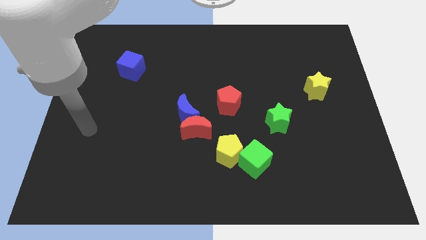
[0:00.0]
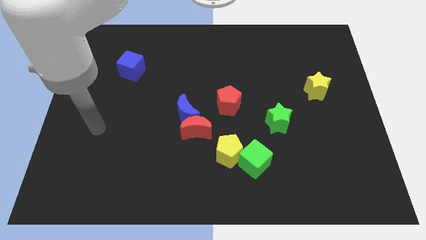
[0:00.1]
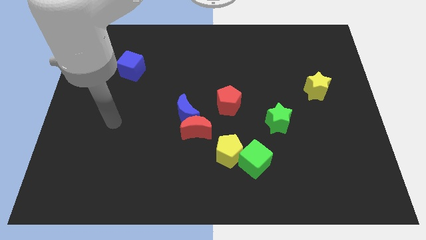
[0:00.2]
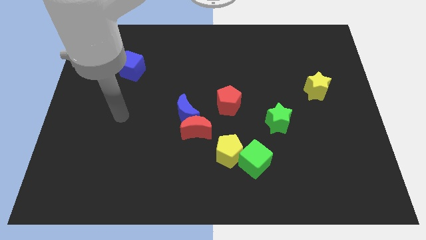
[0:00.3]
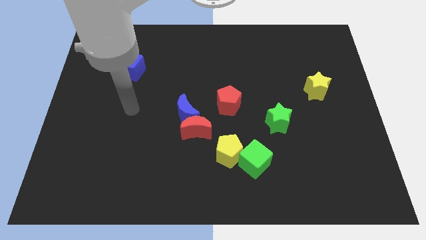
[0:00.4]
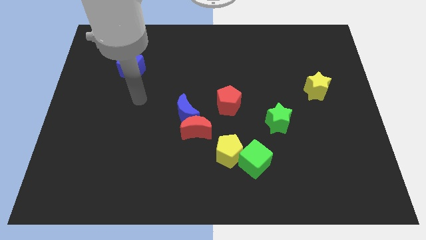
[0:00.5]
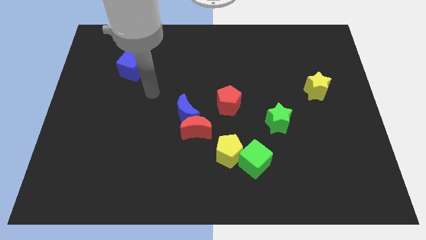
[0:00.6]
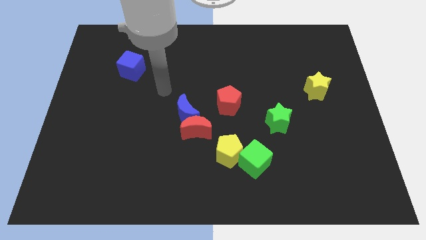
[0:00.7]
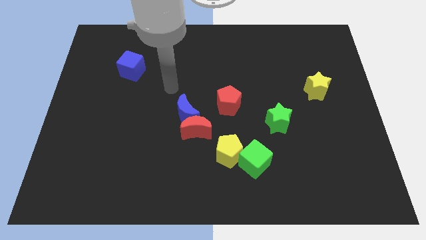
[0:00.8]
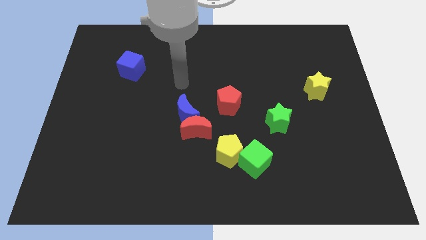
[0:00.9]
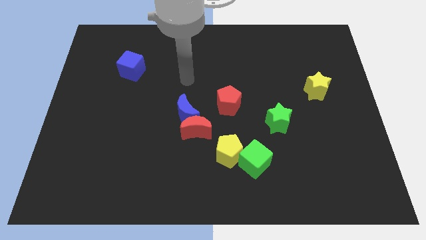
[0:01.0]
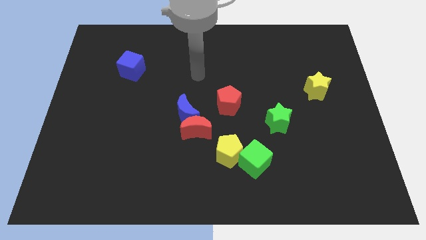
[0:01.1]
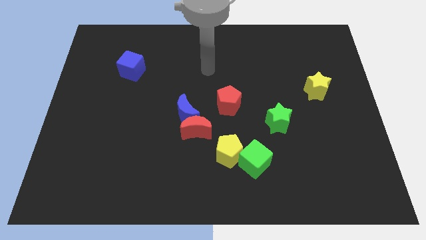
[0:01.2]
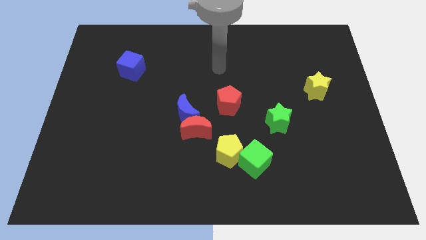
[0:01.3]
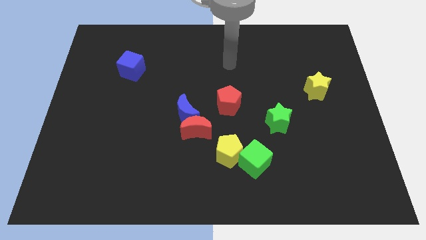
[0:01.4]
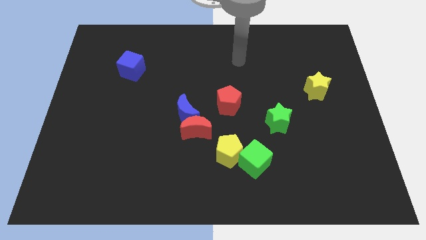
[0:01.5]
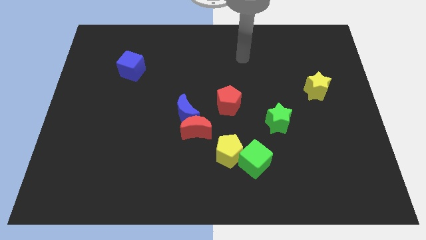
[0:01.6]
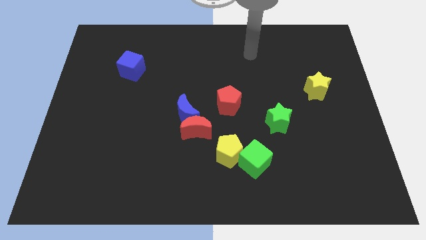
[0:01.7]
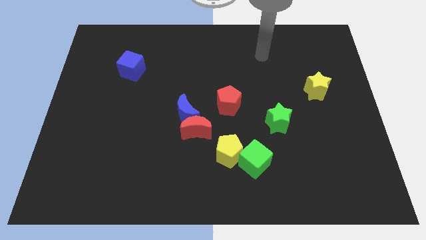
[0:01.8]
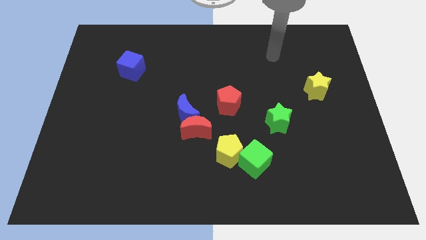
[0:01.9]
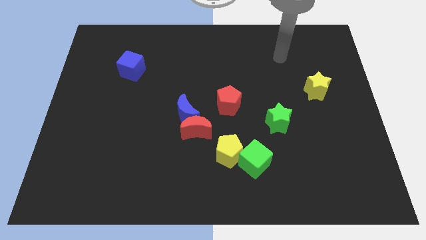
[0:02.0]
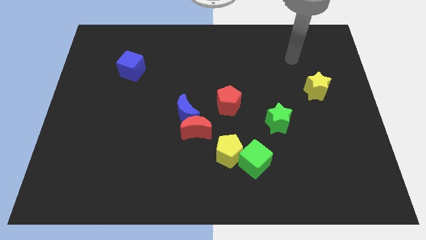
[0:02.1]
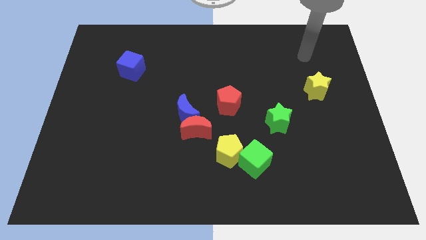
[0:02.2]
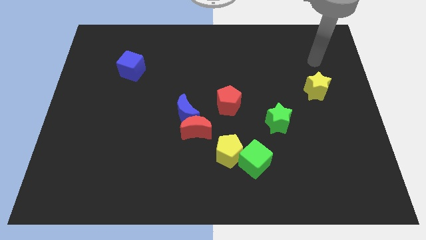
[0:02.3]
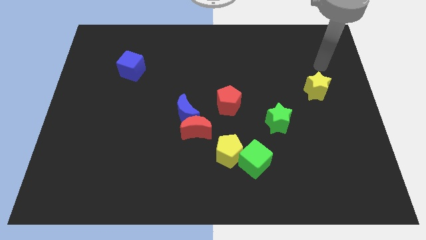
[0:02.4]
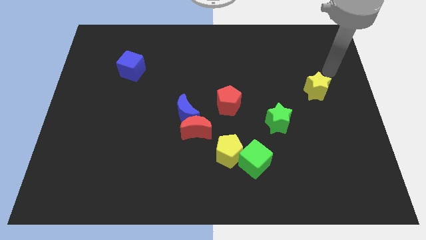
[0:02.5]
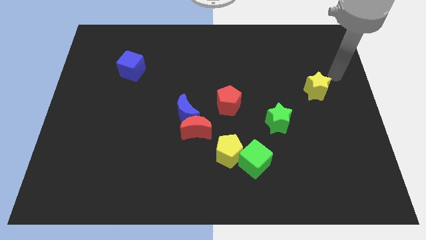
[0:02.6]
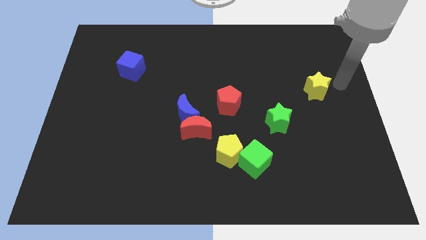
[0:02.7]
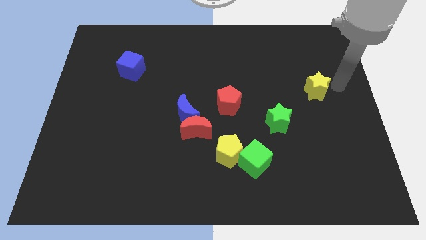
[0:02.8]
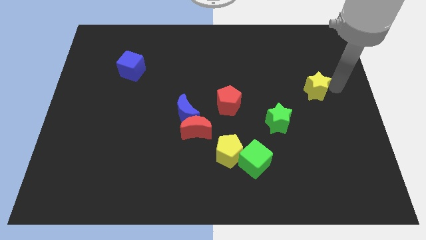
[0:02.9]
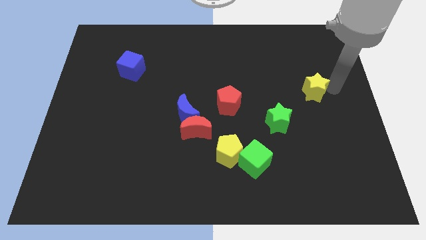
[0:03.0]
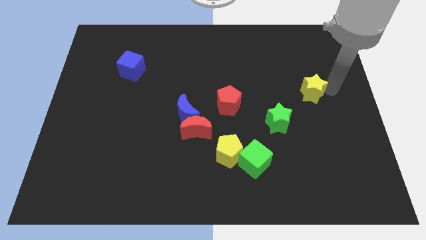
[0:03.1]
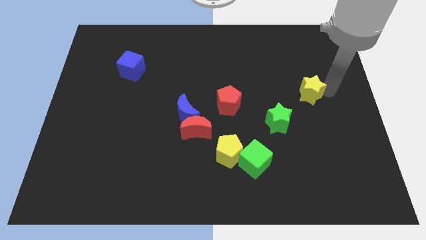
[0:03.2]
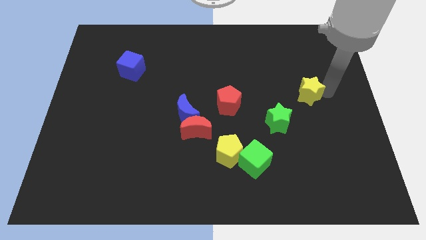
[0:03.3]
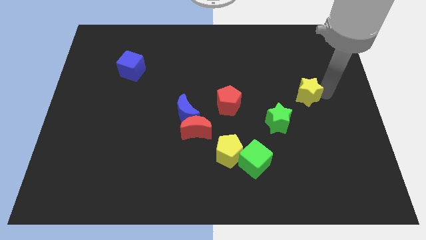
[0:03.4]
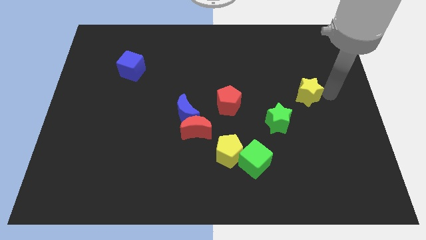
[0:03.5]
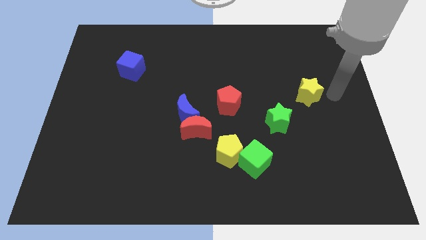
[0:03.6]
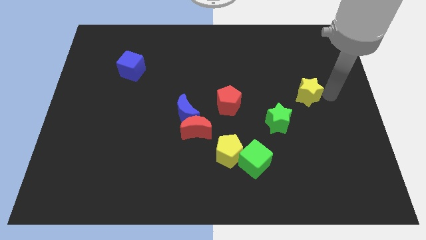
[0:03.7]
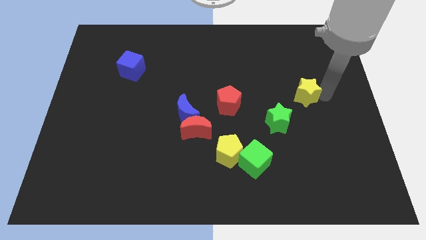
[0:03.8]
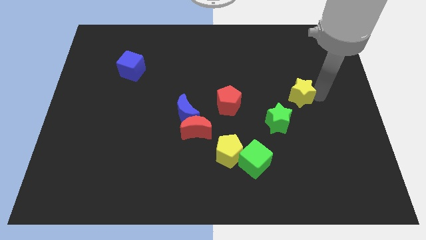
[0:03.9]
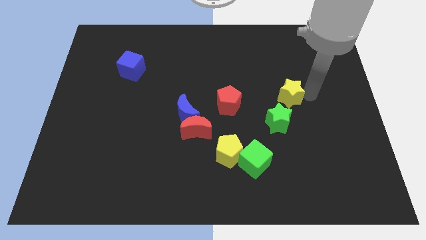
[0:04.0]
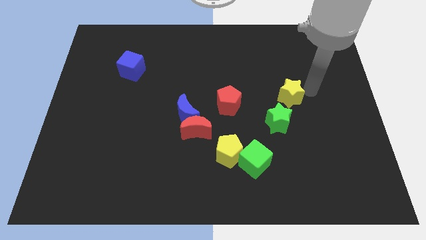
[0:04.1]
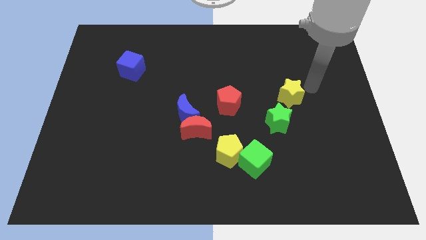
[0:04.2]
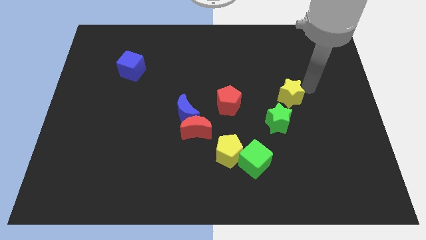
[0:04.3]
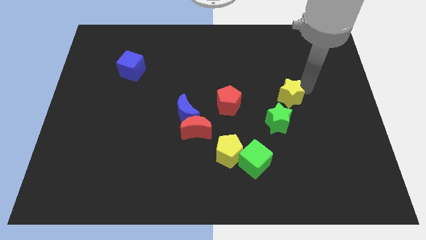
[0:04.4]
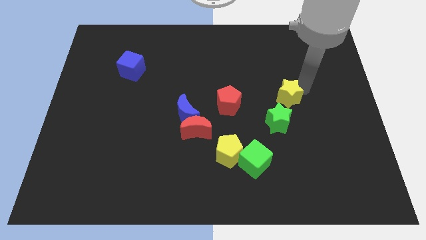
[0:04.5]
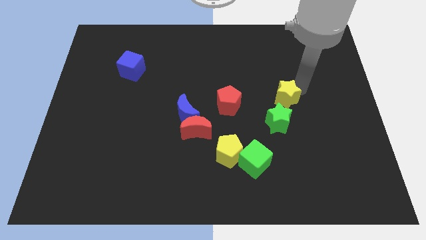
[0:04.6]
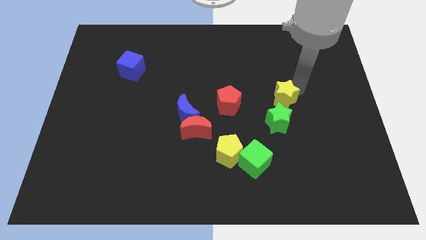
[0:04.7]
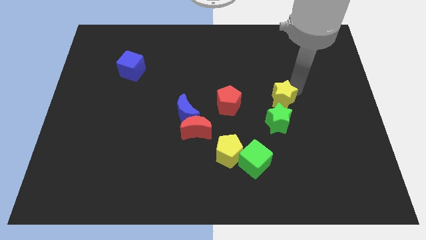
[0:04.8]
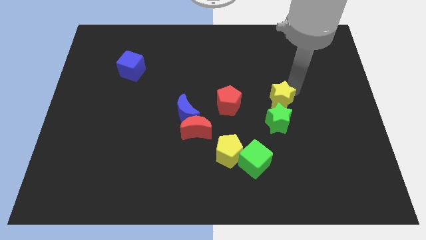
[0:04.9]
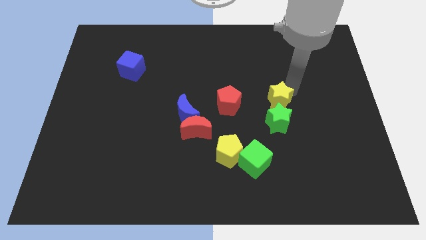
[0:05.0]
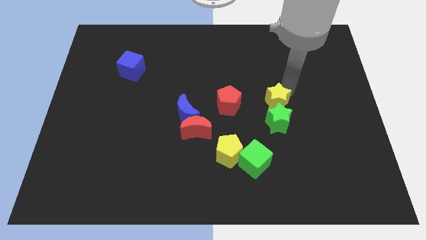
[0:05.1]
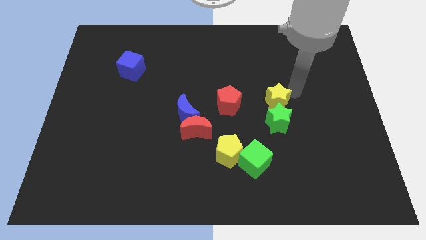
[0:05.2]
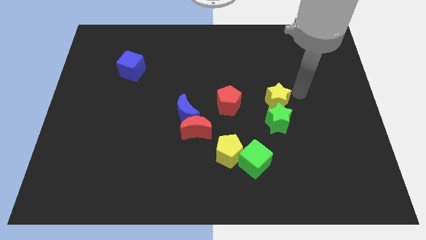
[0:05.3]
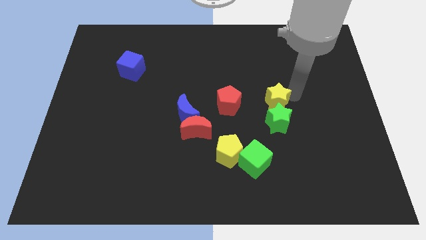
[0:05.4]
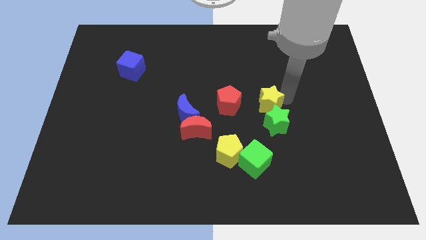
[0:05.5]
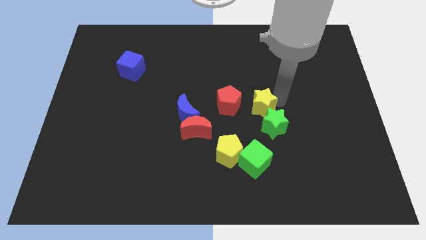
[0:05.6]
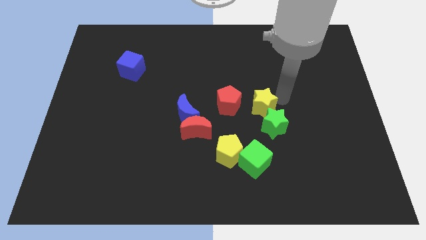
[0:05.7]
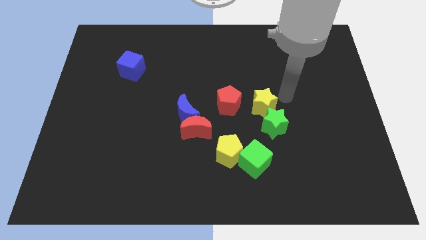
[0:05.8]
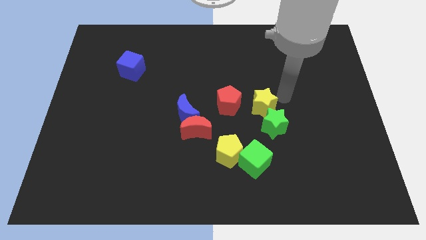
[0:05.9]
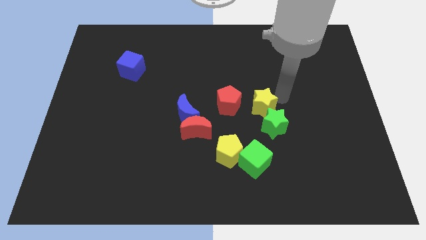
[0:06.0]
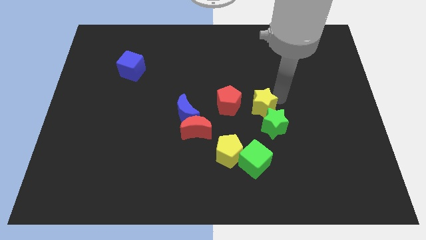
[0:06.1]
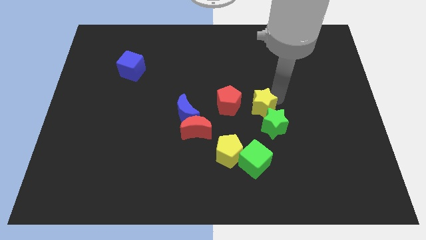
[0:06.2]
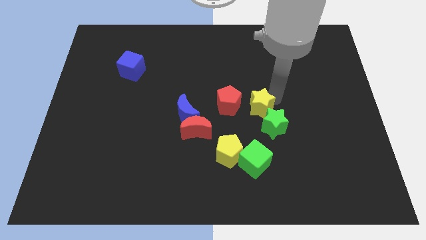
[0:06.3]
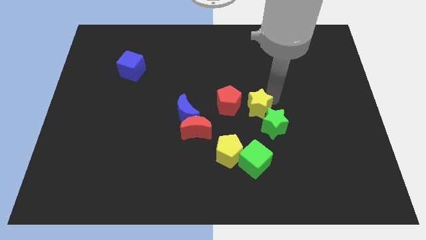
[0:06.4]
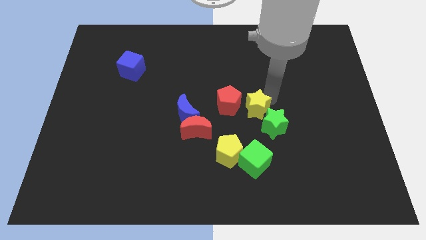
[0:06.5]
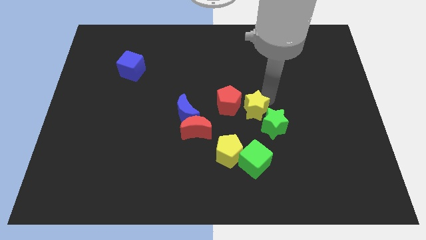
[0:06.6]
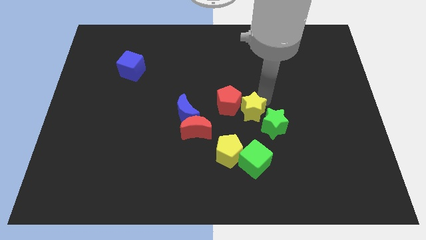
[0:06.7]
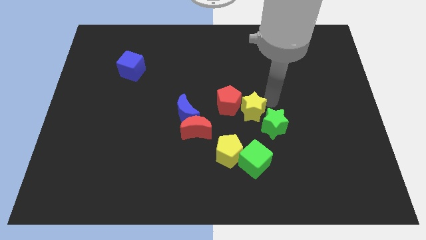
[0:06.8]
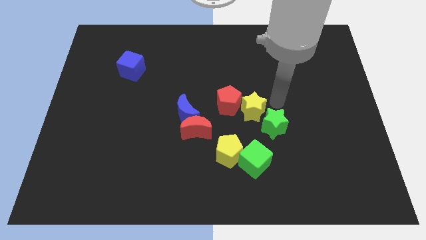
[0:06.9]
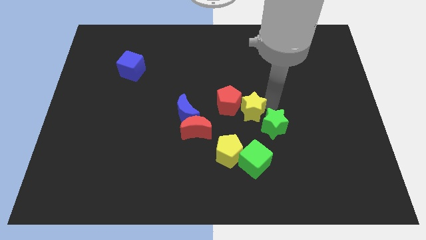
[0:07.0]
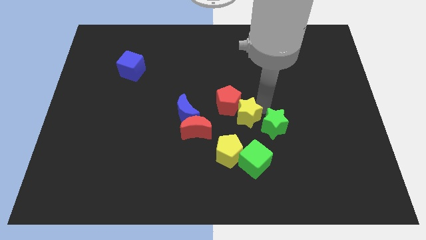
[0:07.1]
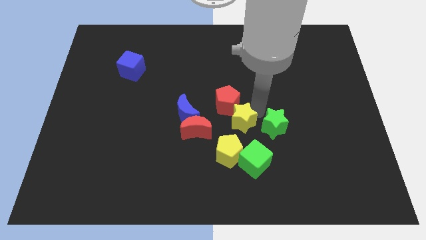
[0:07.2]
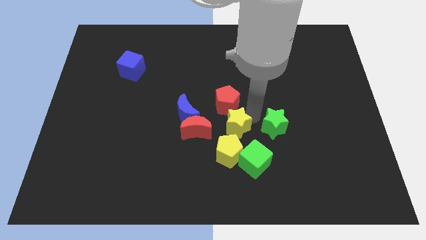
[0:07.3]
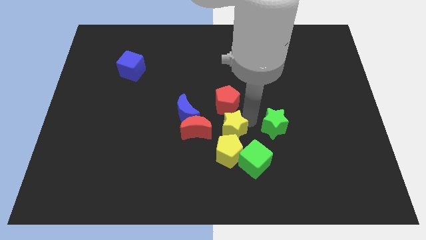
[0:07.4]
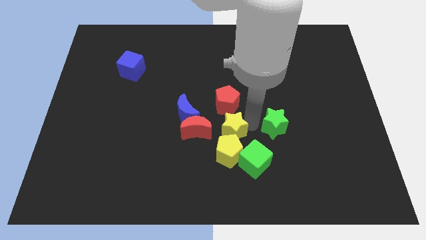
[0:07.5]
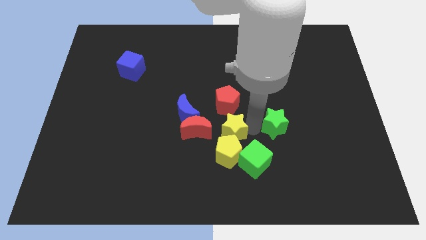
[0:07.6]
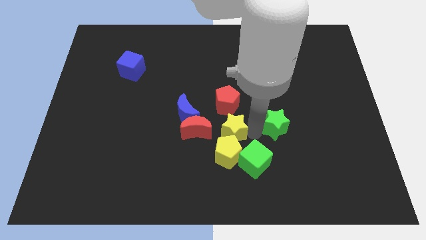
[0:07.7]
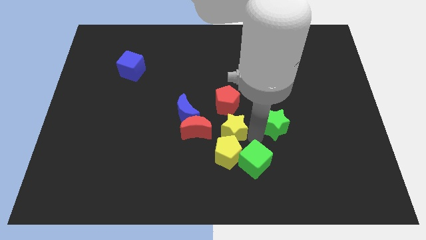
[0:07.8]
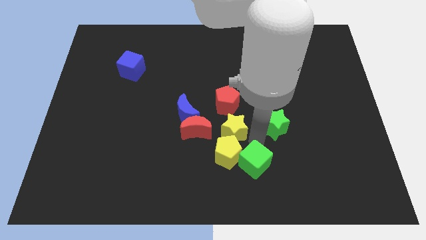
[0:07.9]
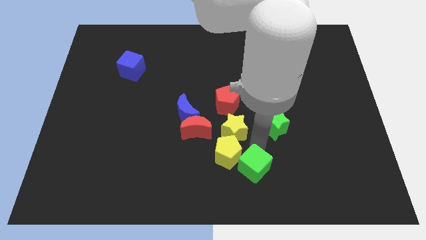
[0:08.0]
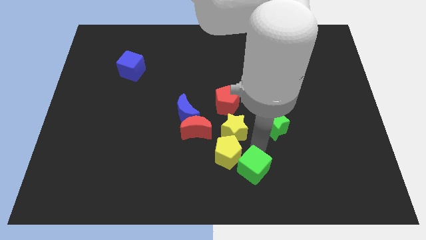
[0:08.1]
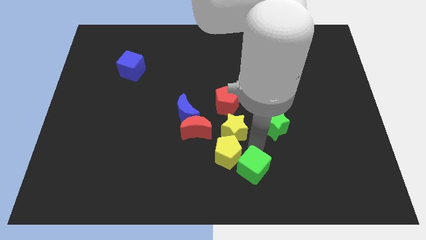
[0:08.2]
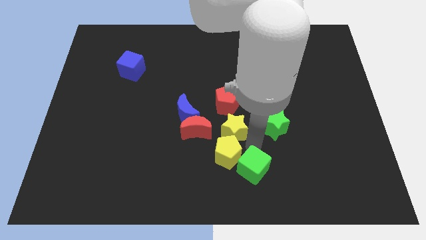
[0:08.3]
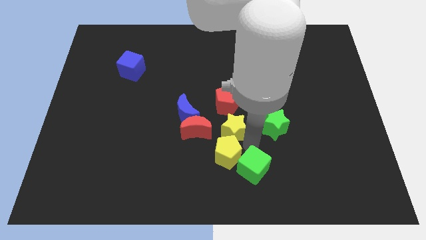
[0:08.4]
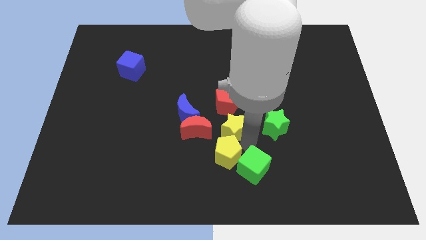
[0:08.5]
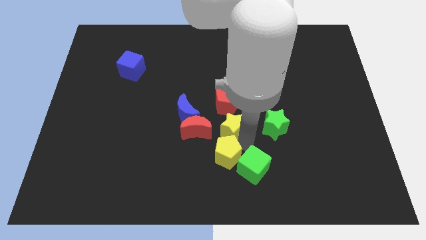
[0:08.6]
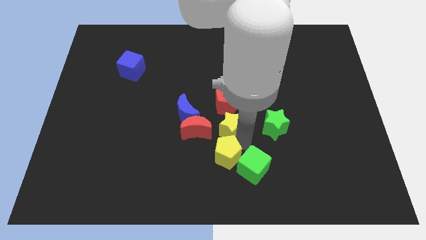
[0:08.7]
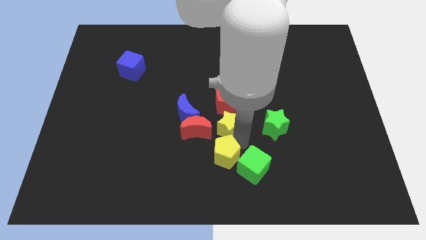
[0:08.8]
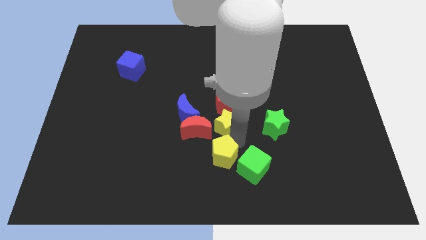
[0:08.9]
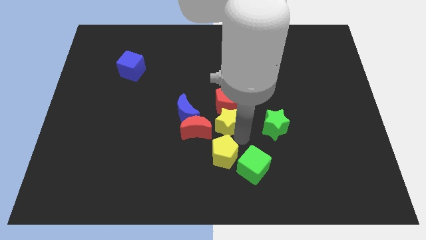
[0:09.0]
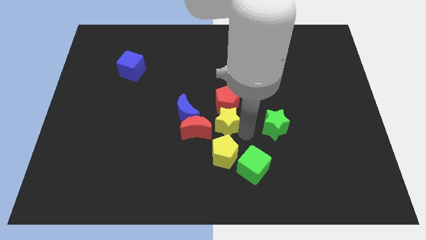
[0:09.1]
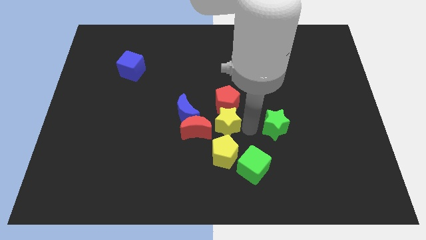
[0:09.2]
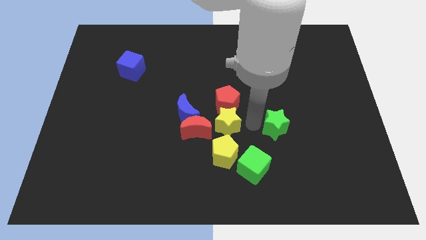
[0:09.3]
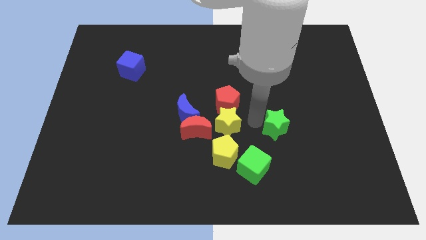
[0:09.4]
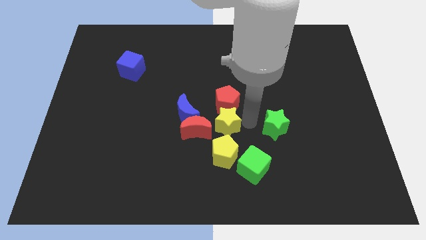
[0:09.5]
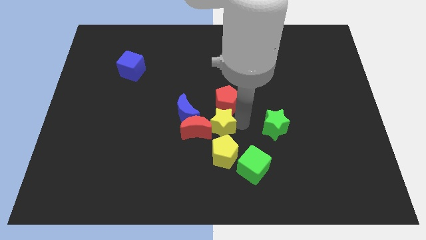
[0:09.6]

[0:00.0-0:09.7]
move the yellow star to the red moon
